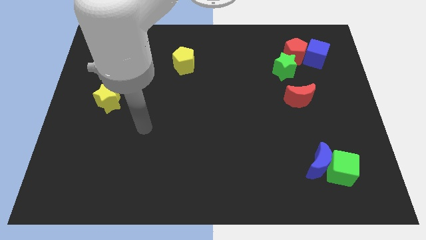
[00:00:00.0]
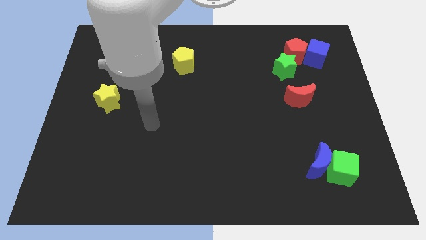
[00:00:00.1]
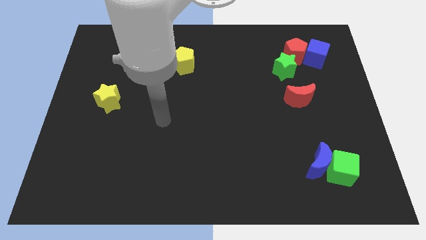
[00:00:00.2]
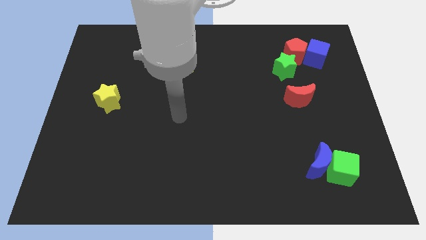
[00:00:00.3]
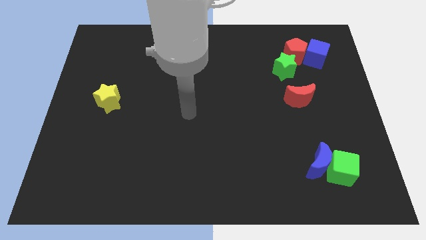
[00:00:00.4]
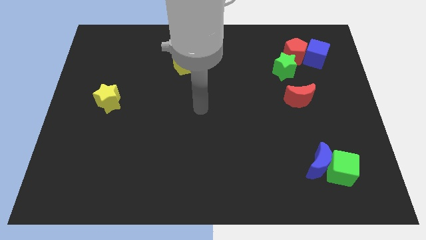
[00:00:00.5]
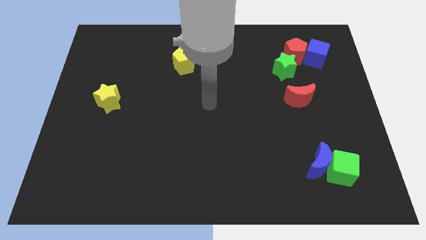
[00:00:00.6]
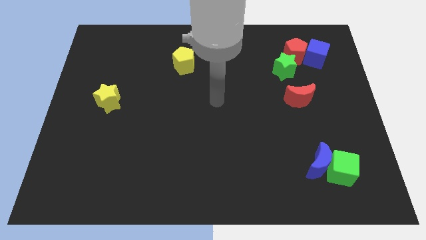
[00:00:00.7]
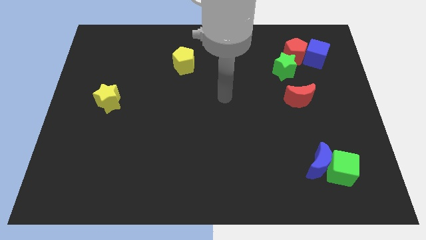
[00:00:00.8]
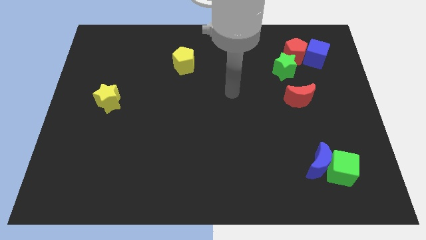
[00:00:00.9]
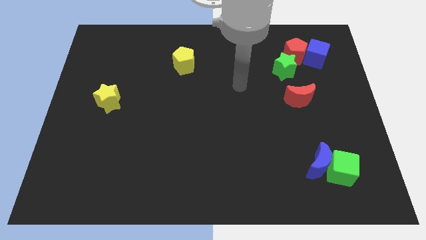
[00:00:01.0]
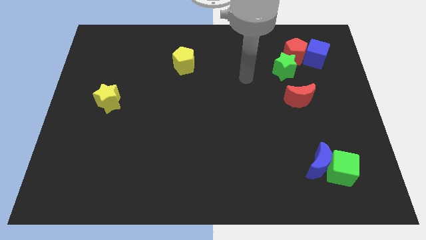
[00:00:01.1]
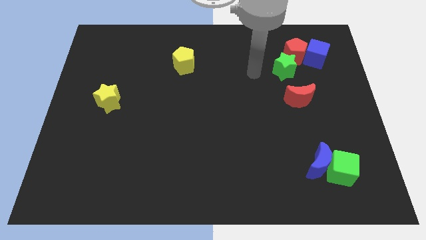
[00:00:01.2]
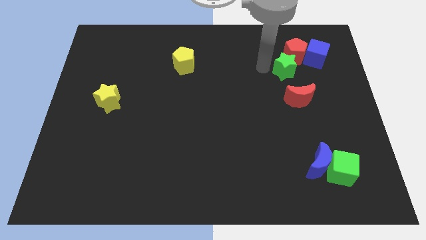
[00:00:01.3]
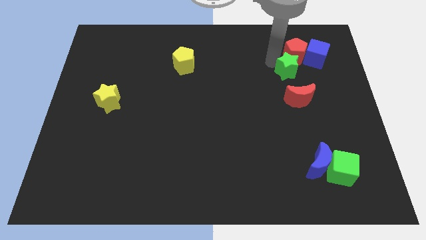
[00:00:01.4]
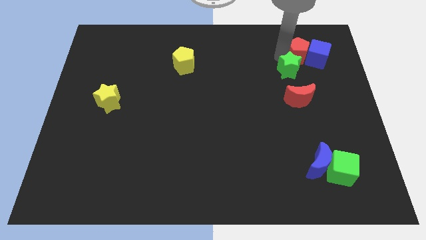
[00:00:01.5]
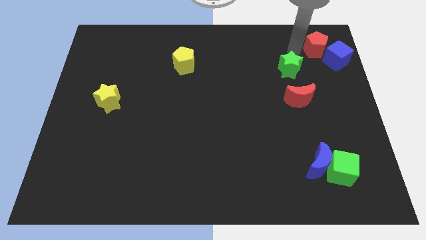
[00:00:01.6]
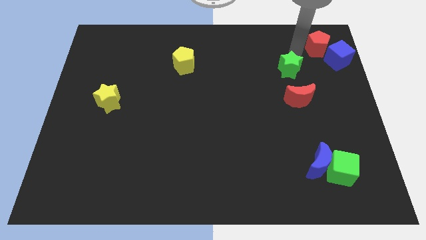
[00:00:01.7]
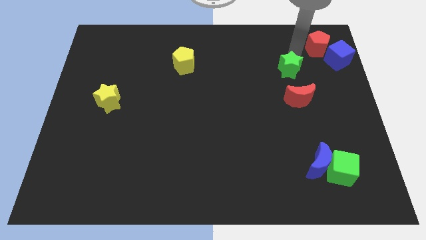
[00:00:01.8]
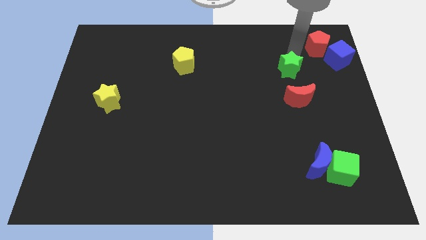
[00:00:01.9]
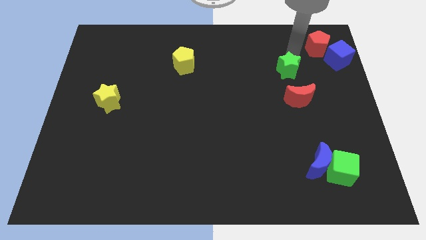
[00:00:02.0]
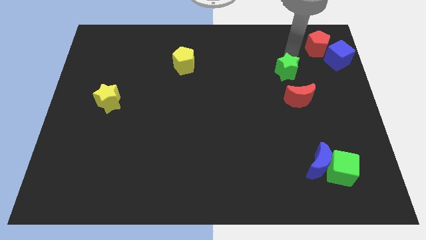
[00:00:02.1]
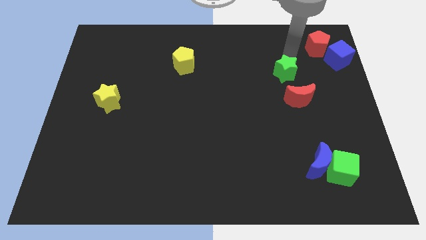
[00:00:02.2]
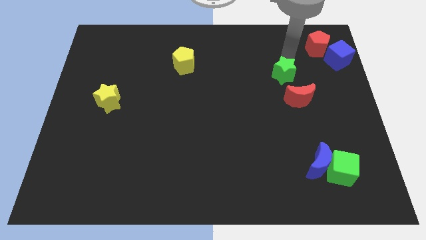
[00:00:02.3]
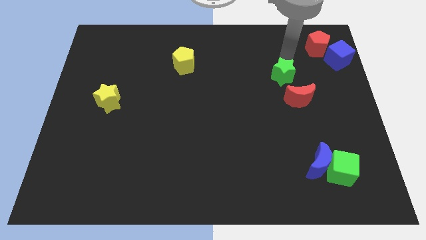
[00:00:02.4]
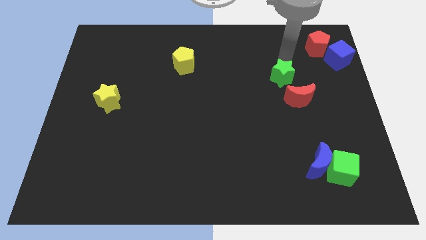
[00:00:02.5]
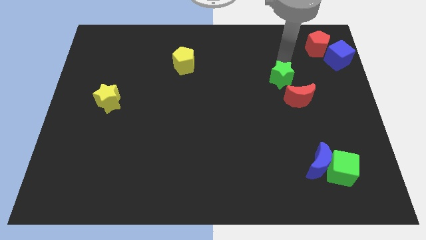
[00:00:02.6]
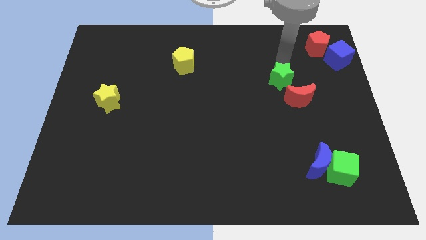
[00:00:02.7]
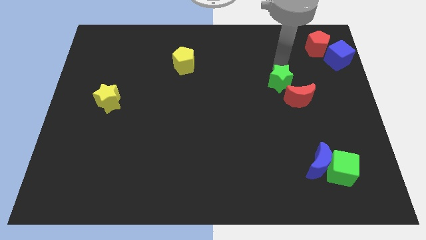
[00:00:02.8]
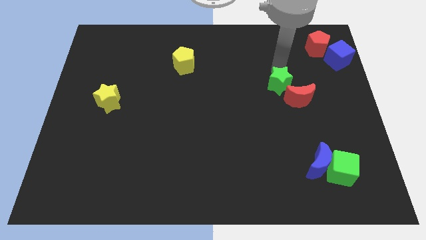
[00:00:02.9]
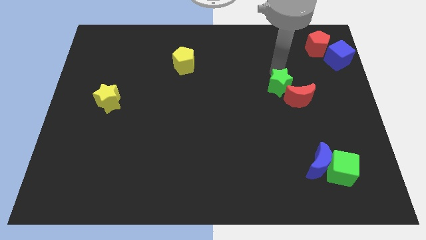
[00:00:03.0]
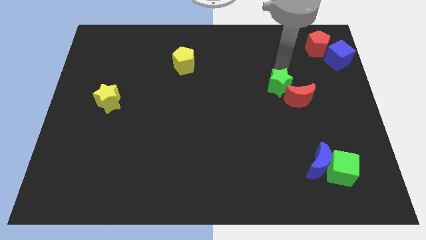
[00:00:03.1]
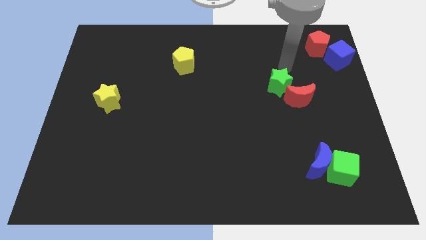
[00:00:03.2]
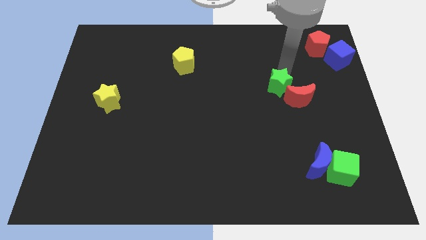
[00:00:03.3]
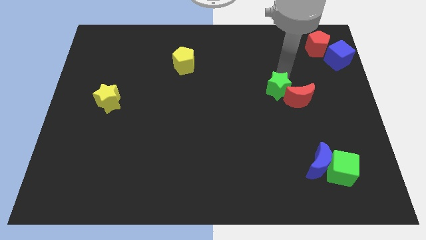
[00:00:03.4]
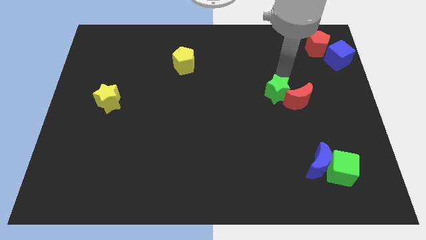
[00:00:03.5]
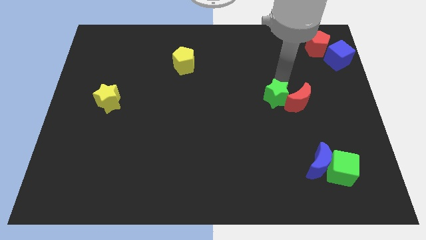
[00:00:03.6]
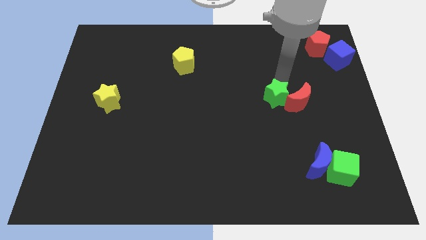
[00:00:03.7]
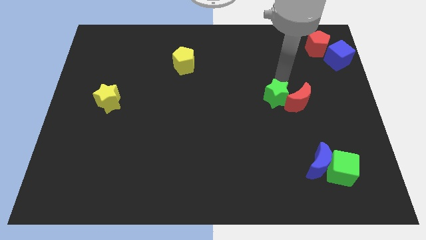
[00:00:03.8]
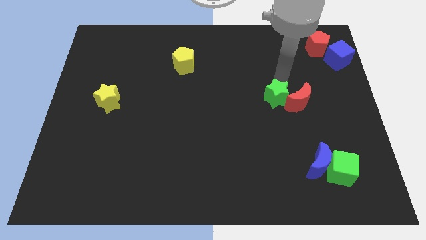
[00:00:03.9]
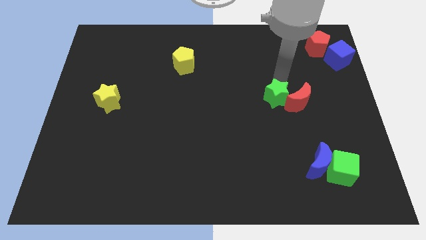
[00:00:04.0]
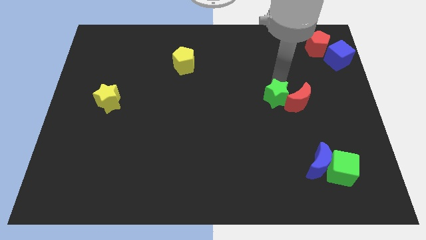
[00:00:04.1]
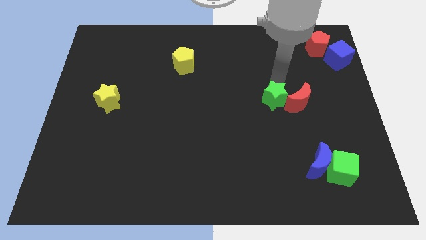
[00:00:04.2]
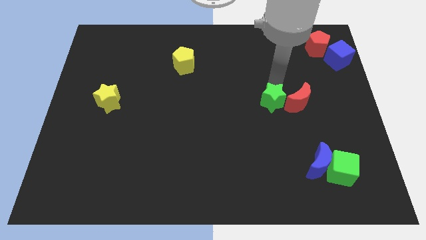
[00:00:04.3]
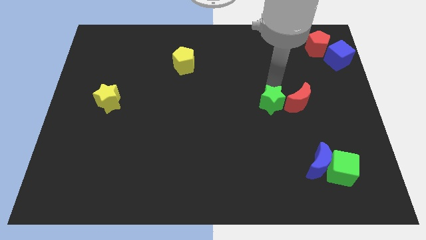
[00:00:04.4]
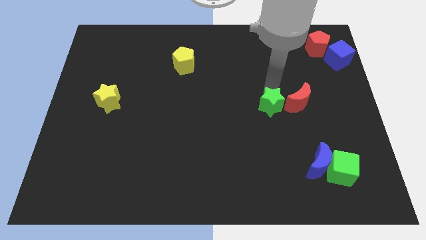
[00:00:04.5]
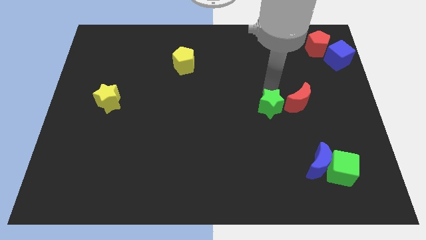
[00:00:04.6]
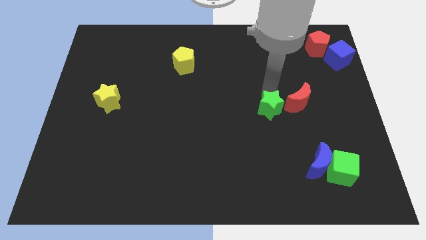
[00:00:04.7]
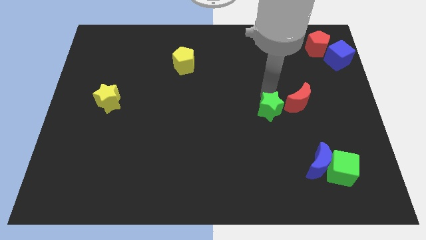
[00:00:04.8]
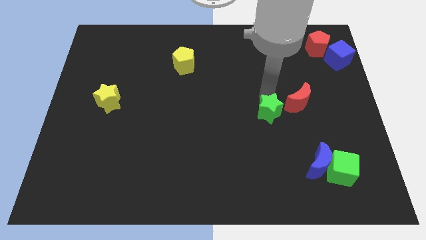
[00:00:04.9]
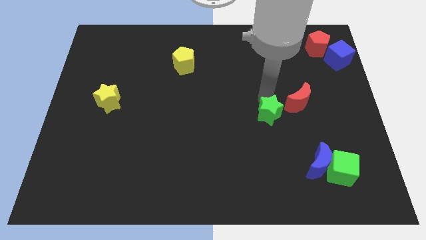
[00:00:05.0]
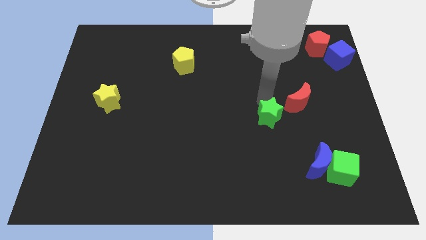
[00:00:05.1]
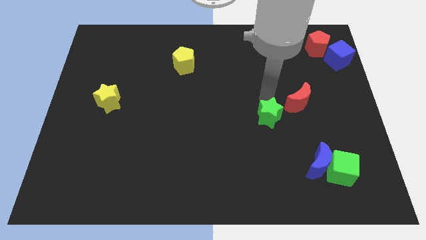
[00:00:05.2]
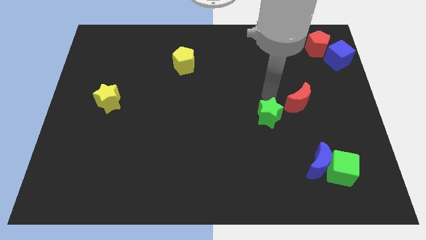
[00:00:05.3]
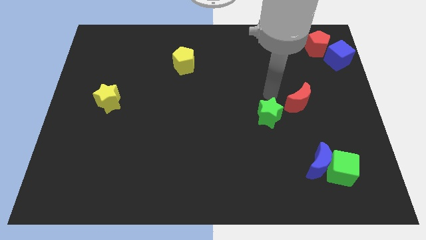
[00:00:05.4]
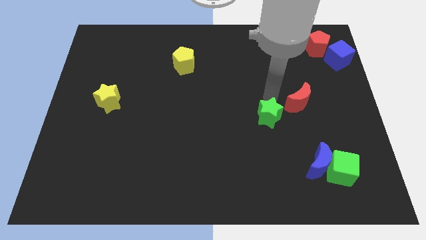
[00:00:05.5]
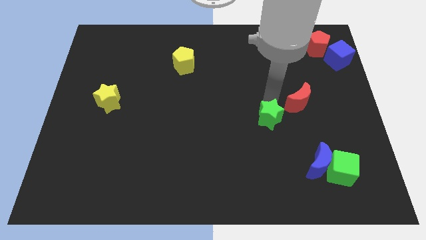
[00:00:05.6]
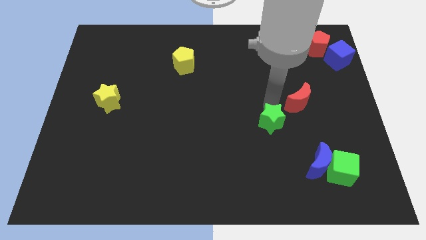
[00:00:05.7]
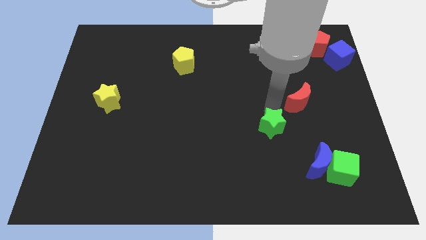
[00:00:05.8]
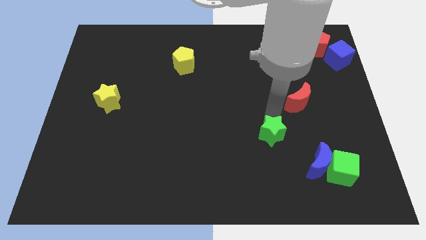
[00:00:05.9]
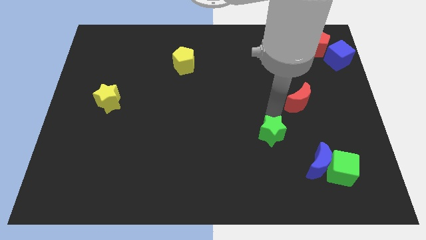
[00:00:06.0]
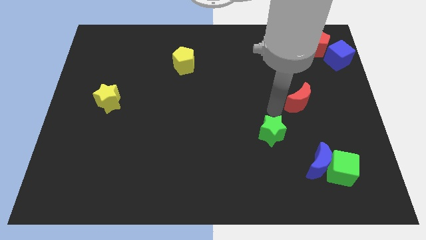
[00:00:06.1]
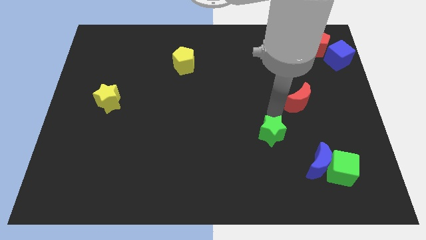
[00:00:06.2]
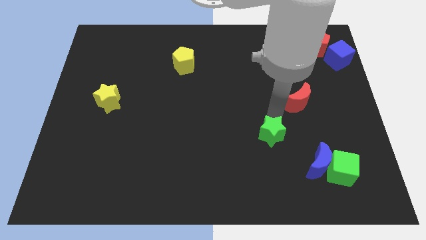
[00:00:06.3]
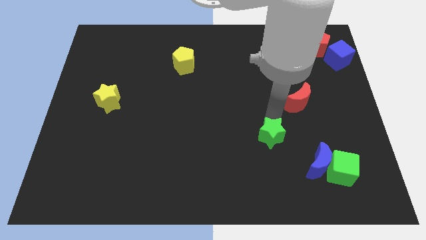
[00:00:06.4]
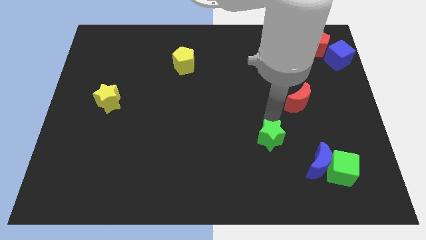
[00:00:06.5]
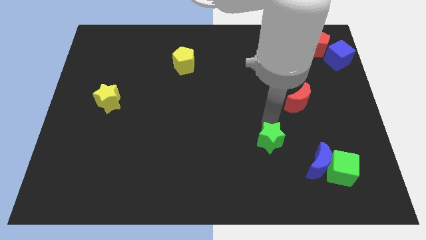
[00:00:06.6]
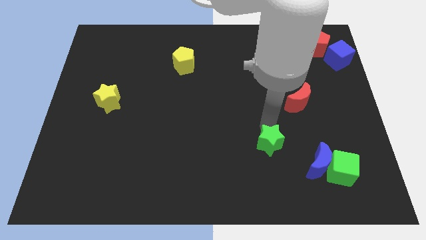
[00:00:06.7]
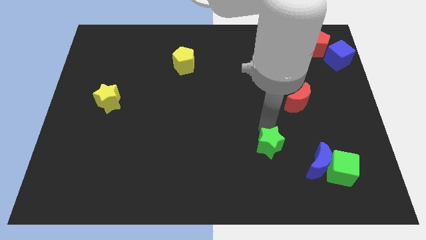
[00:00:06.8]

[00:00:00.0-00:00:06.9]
move the green star just left of the blue moon

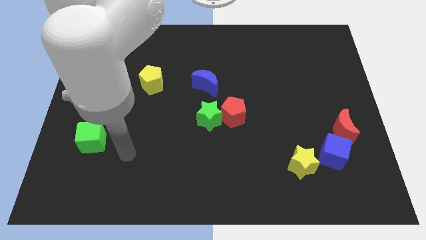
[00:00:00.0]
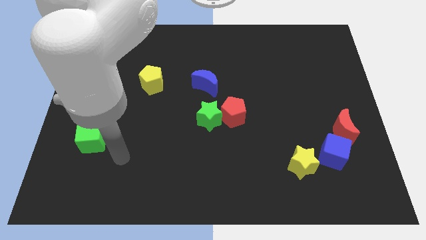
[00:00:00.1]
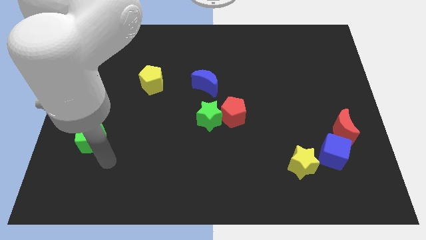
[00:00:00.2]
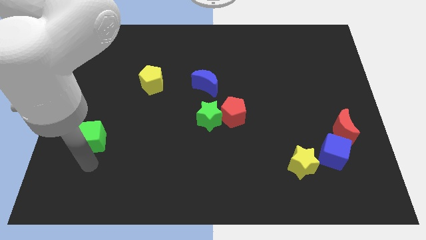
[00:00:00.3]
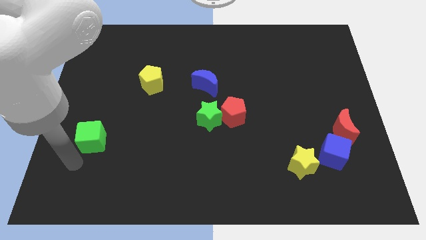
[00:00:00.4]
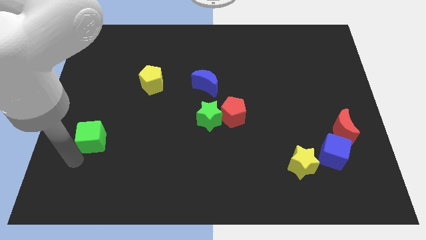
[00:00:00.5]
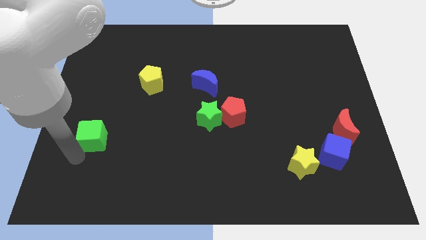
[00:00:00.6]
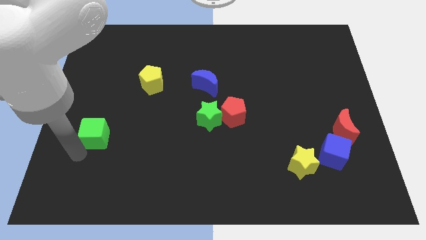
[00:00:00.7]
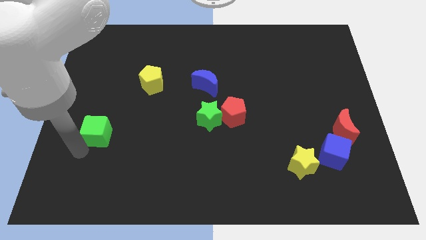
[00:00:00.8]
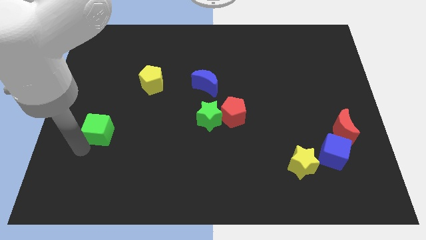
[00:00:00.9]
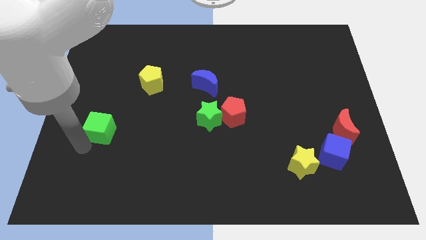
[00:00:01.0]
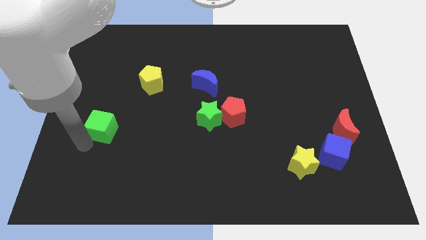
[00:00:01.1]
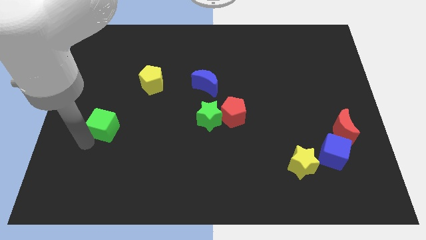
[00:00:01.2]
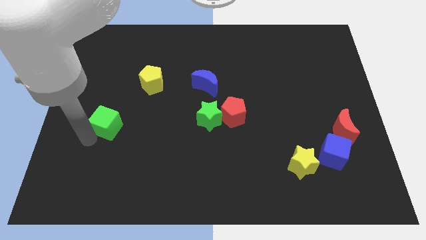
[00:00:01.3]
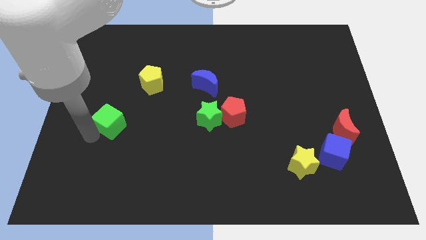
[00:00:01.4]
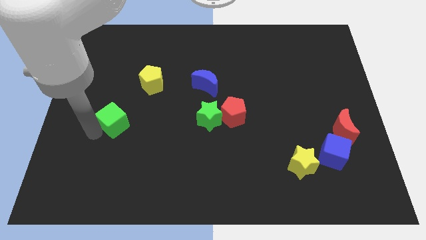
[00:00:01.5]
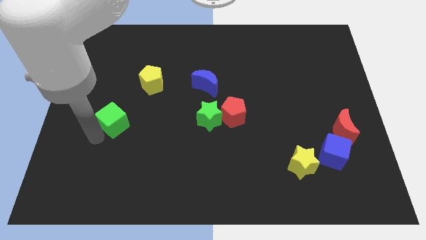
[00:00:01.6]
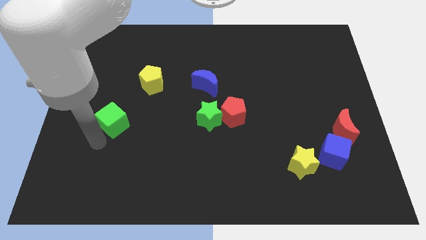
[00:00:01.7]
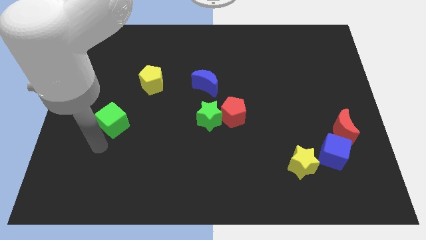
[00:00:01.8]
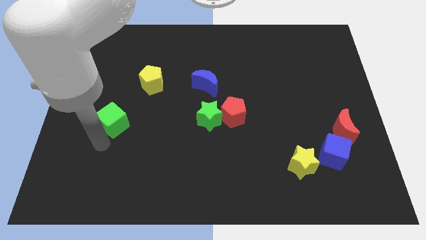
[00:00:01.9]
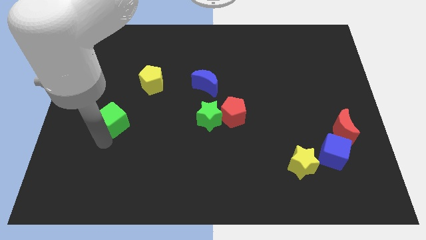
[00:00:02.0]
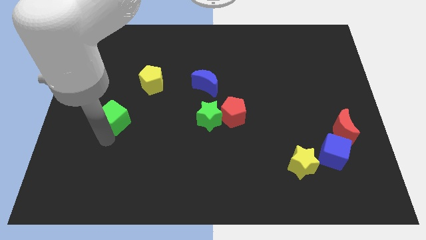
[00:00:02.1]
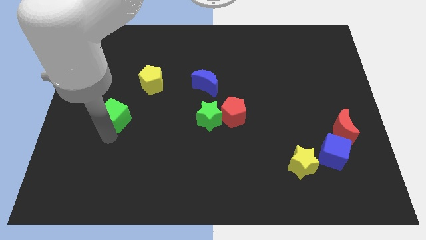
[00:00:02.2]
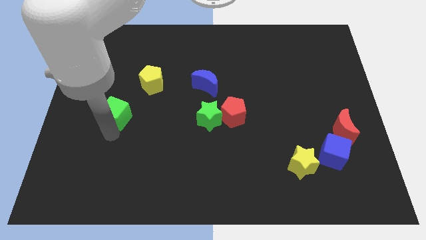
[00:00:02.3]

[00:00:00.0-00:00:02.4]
slide the green cube to the bottom left of the yellow pentagon
